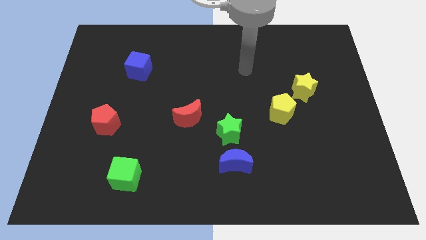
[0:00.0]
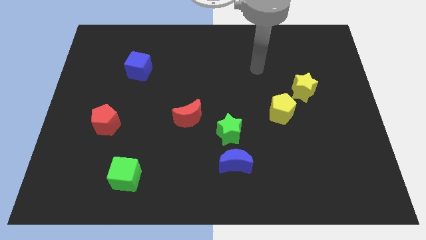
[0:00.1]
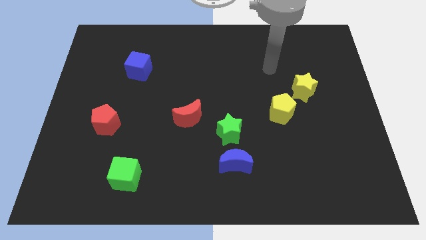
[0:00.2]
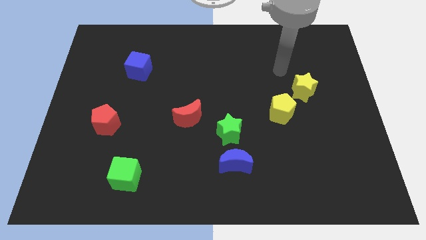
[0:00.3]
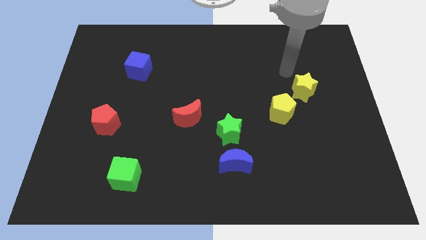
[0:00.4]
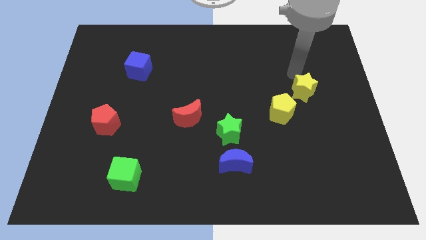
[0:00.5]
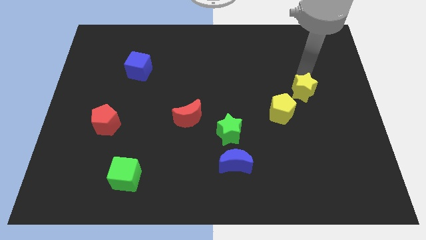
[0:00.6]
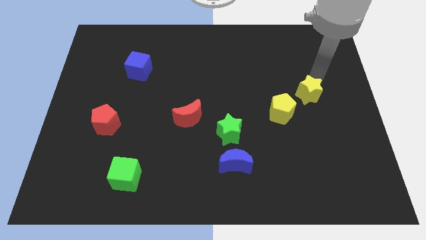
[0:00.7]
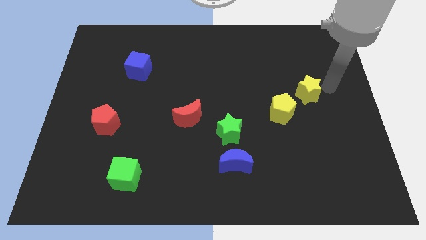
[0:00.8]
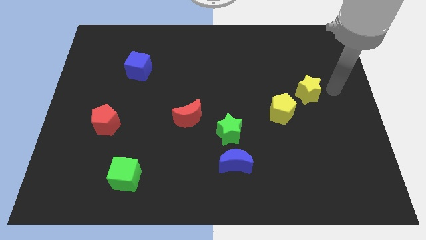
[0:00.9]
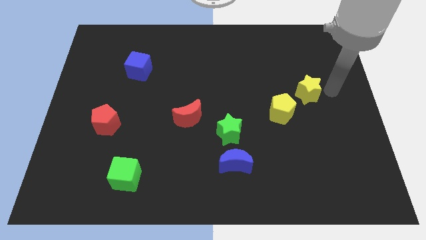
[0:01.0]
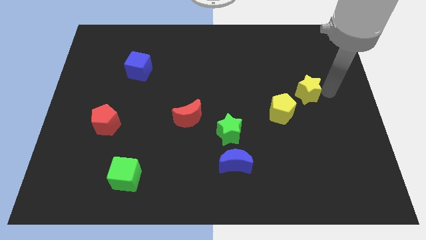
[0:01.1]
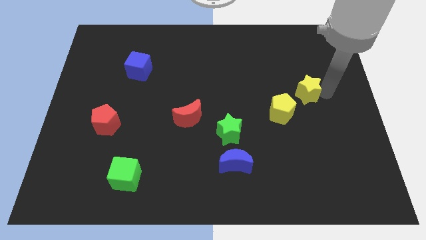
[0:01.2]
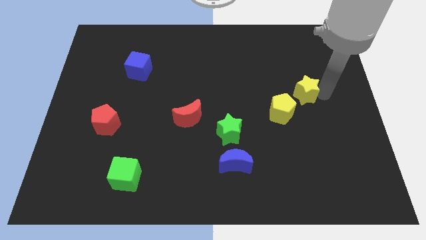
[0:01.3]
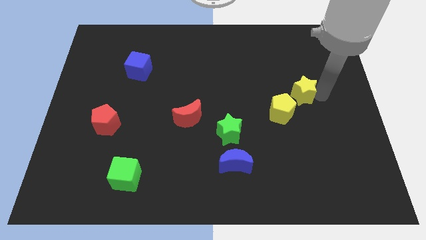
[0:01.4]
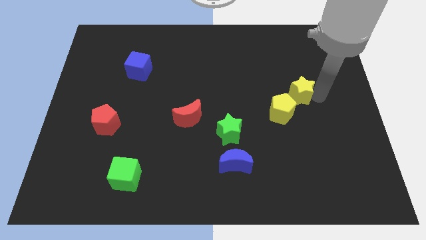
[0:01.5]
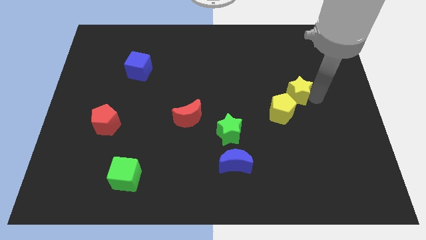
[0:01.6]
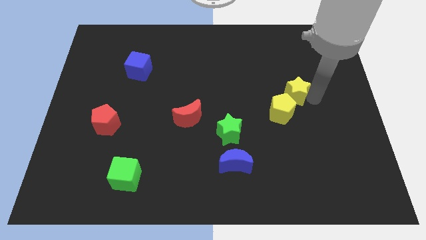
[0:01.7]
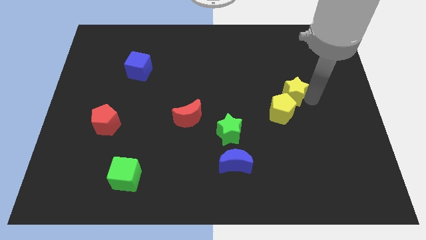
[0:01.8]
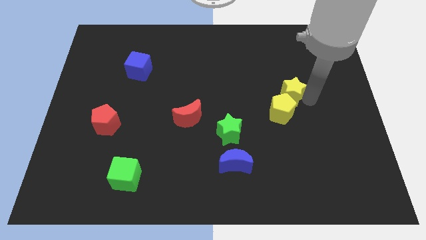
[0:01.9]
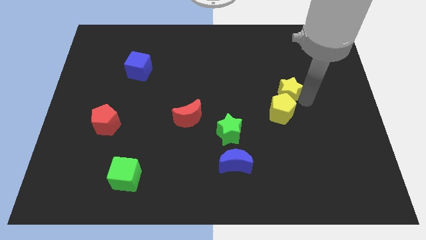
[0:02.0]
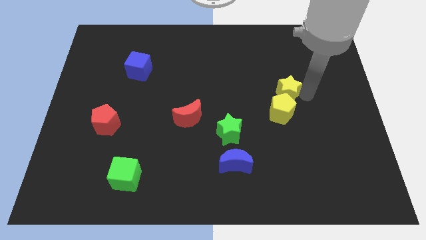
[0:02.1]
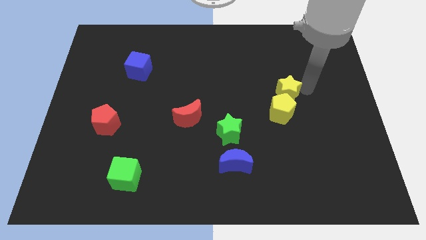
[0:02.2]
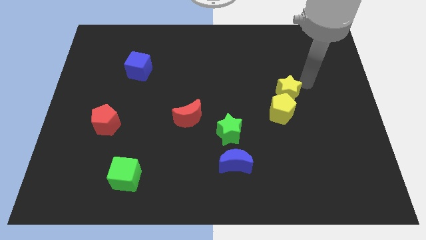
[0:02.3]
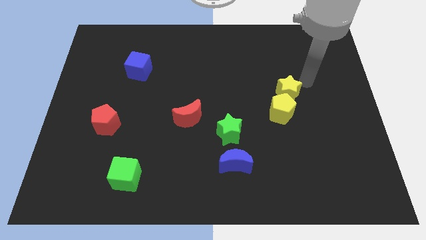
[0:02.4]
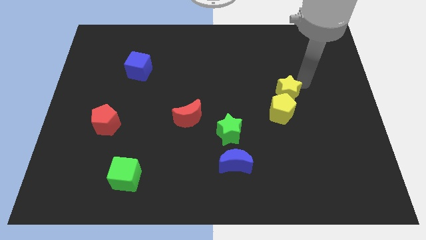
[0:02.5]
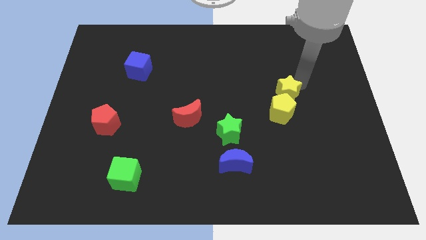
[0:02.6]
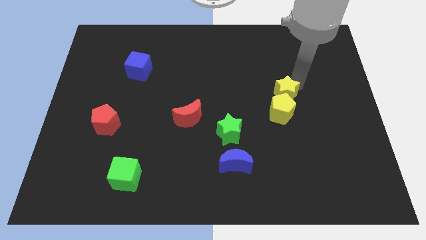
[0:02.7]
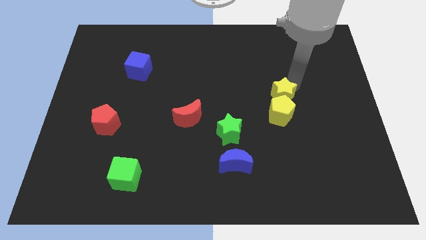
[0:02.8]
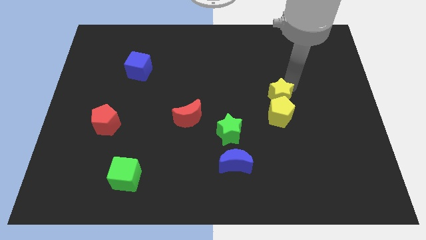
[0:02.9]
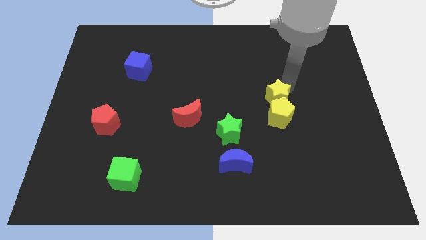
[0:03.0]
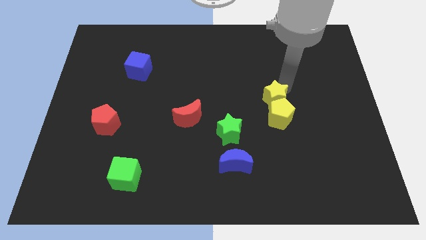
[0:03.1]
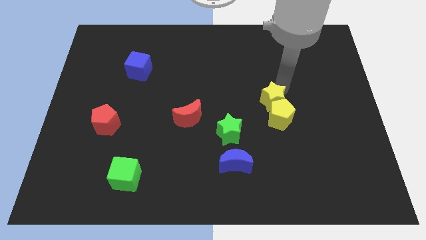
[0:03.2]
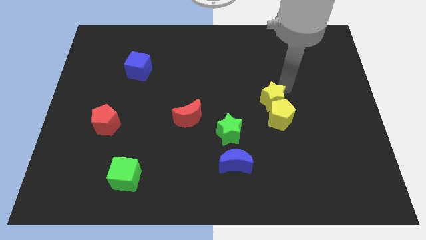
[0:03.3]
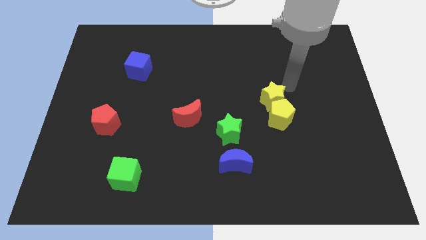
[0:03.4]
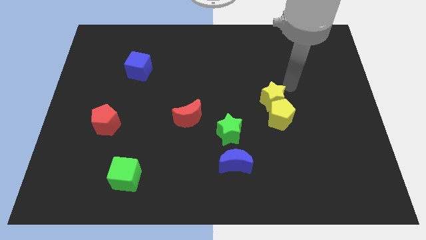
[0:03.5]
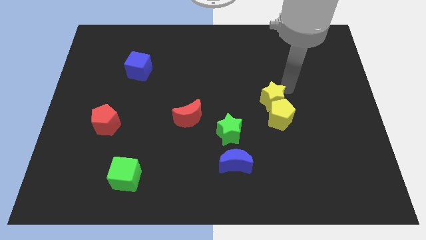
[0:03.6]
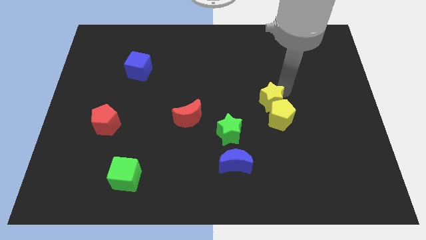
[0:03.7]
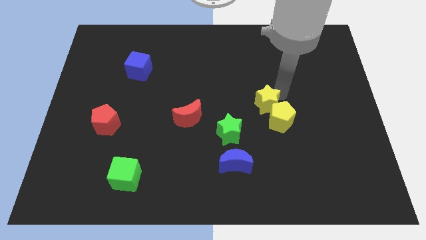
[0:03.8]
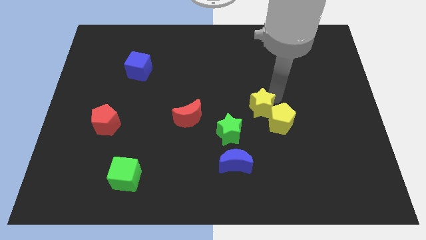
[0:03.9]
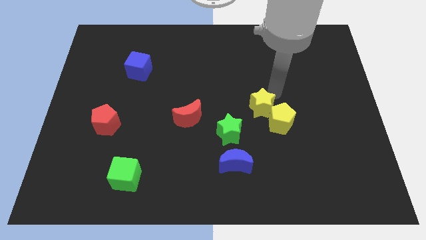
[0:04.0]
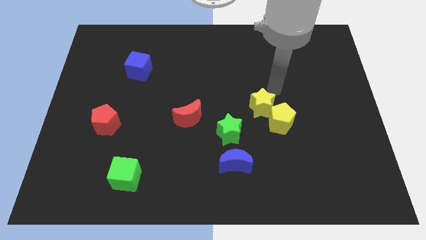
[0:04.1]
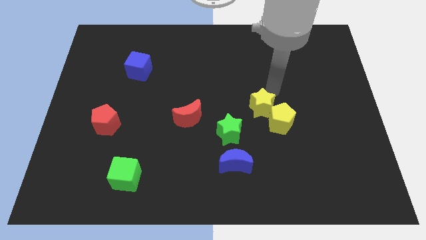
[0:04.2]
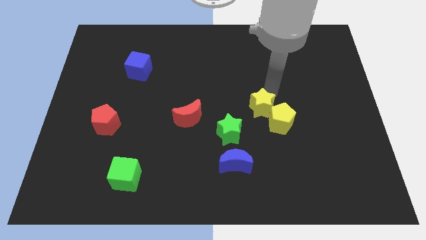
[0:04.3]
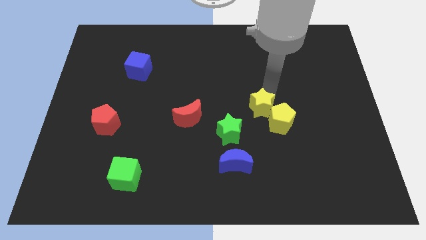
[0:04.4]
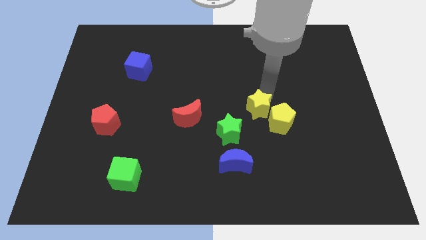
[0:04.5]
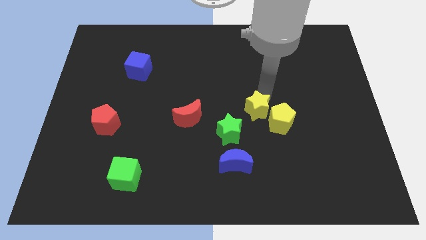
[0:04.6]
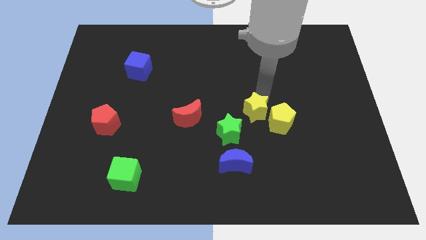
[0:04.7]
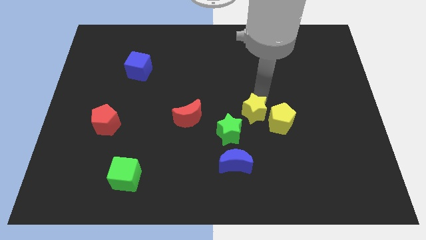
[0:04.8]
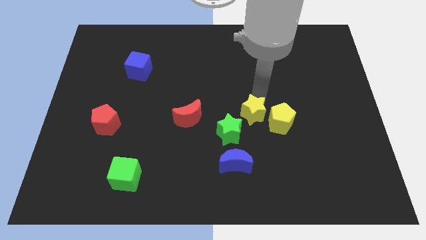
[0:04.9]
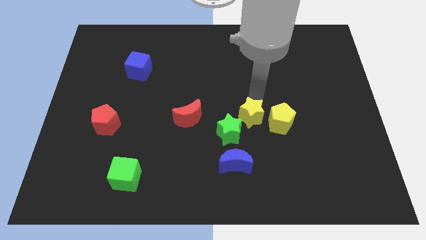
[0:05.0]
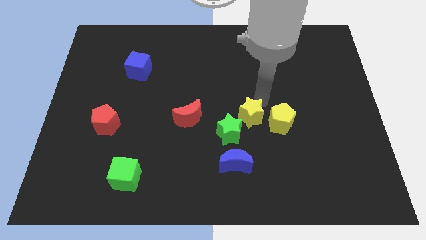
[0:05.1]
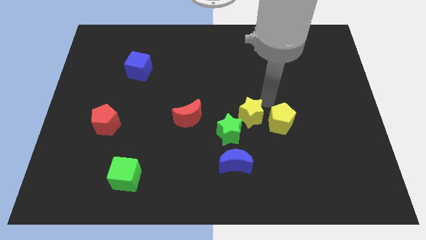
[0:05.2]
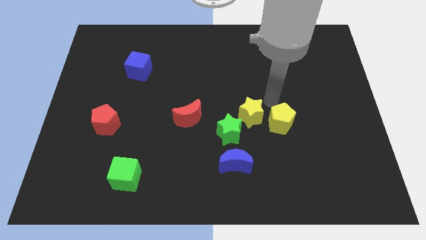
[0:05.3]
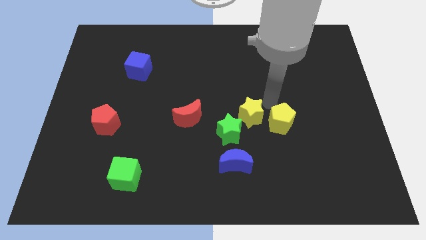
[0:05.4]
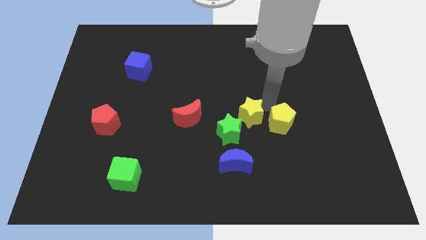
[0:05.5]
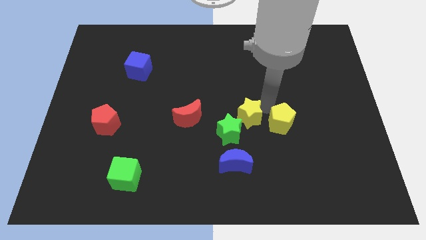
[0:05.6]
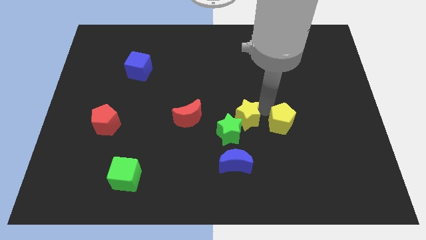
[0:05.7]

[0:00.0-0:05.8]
slide the yellow star to the green star
